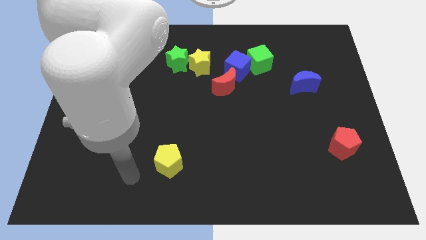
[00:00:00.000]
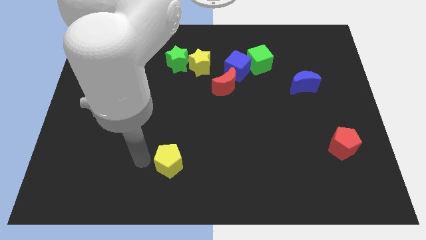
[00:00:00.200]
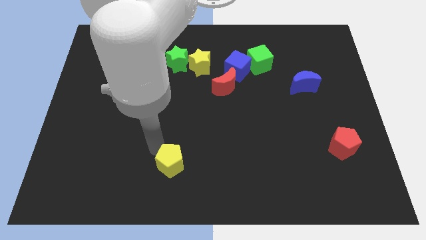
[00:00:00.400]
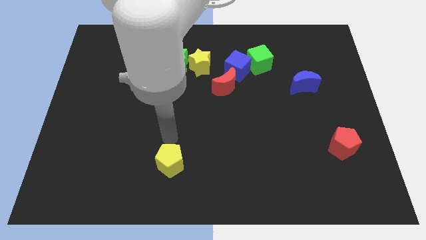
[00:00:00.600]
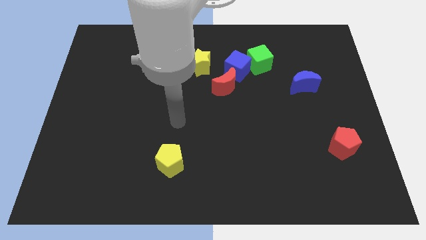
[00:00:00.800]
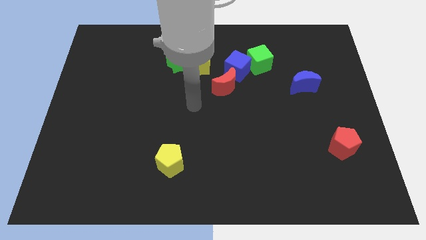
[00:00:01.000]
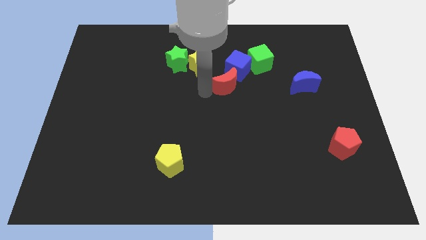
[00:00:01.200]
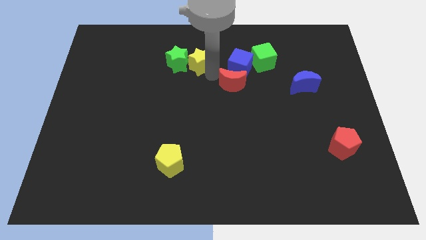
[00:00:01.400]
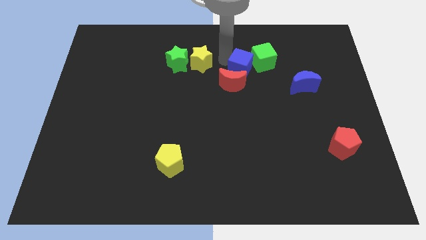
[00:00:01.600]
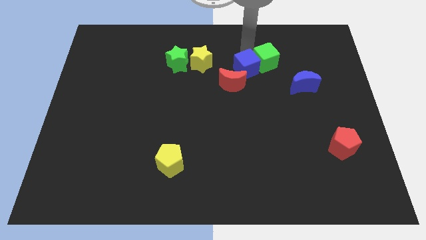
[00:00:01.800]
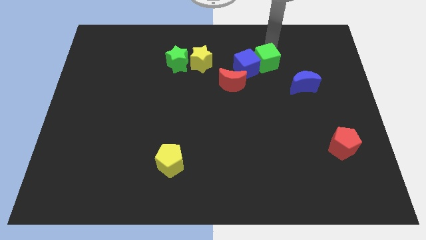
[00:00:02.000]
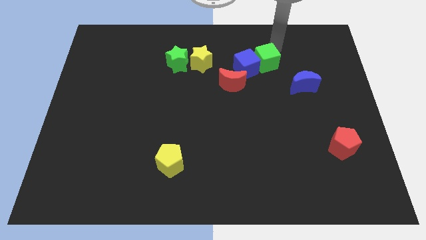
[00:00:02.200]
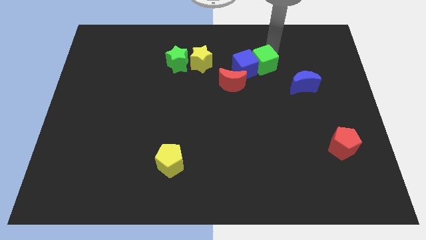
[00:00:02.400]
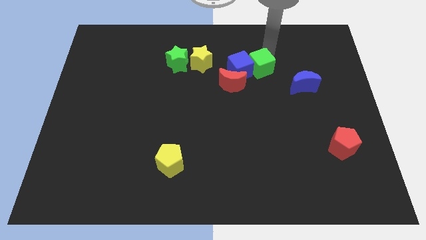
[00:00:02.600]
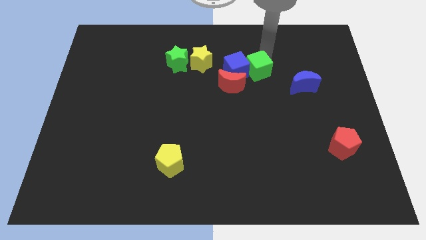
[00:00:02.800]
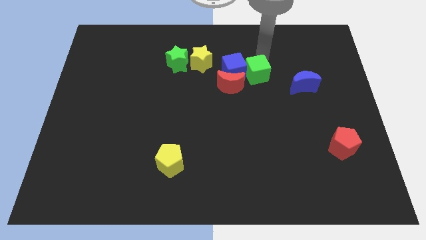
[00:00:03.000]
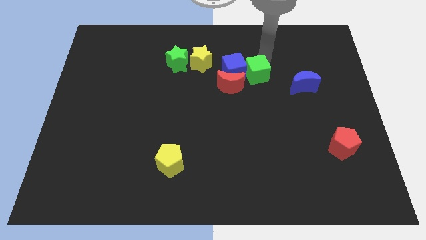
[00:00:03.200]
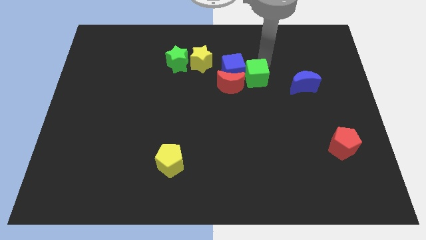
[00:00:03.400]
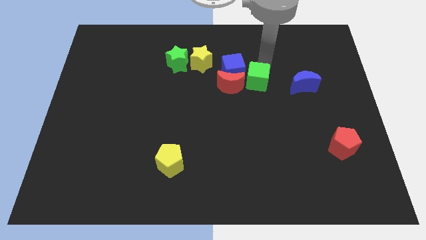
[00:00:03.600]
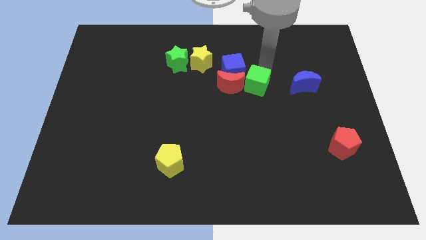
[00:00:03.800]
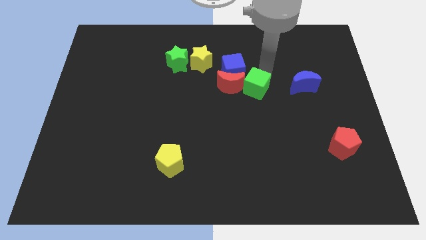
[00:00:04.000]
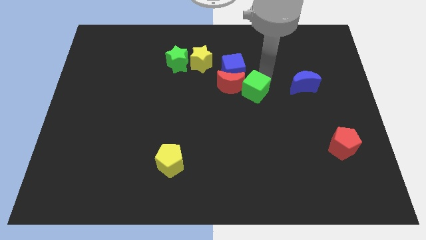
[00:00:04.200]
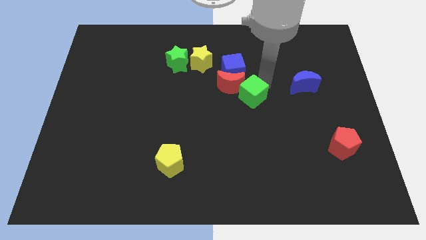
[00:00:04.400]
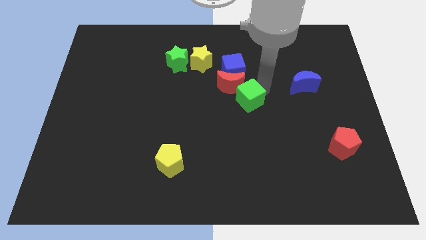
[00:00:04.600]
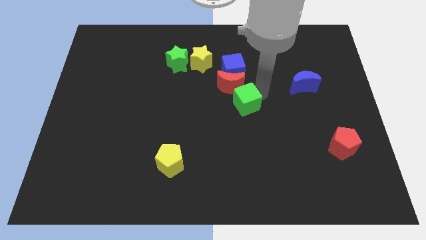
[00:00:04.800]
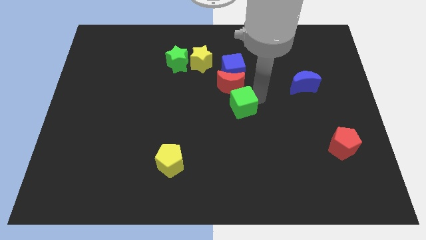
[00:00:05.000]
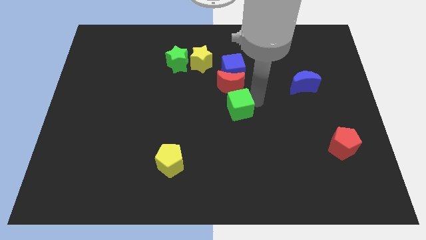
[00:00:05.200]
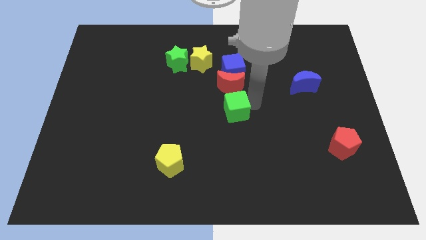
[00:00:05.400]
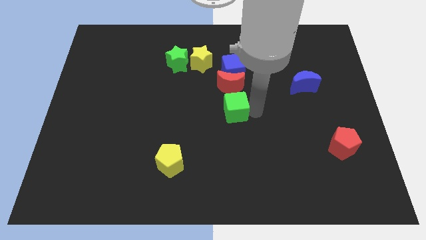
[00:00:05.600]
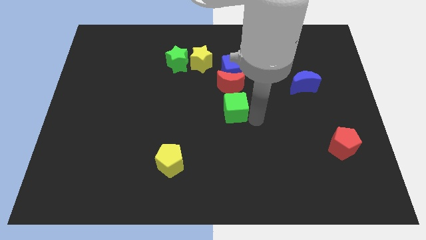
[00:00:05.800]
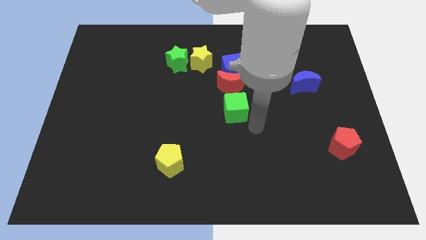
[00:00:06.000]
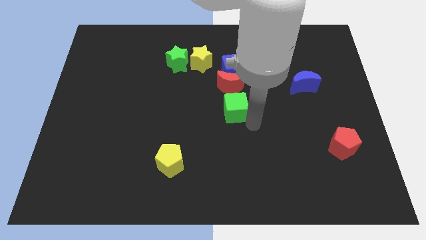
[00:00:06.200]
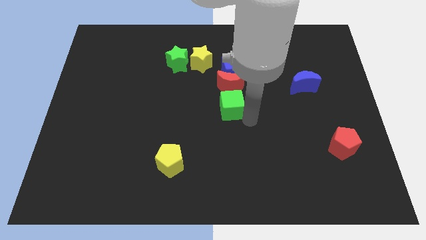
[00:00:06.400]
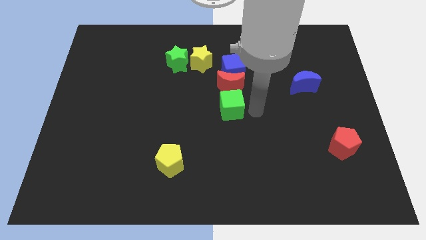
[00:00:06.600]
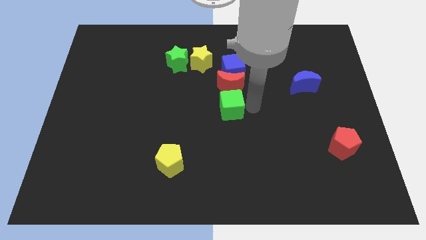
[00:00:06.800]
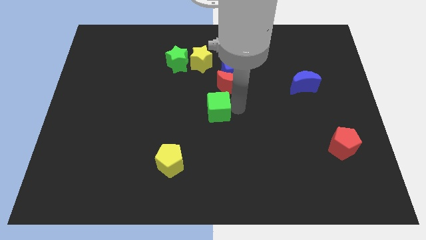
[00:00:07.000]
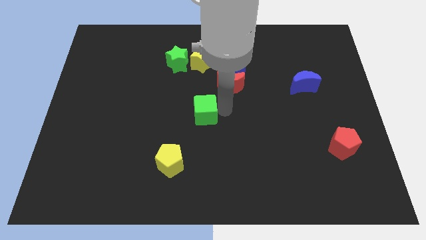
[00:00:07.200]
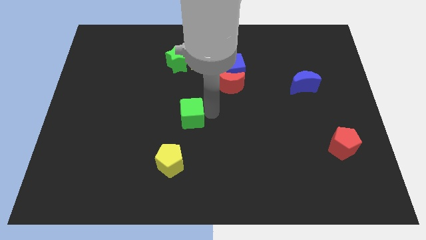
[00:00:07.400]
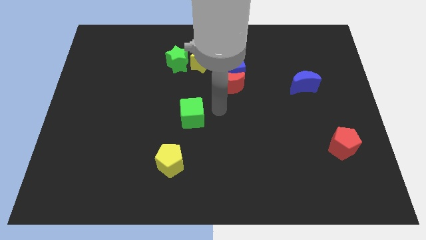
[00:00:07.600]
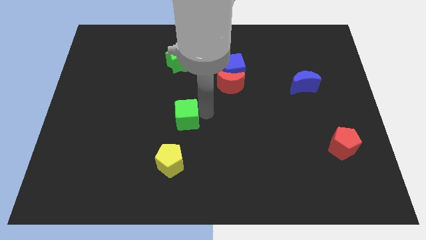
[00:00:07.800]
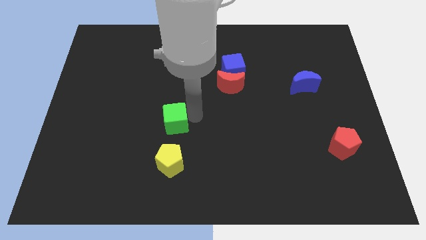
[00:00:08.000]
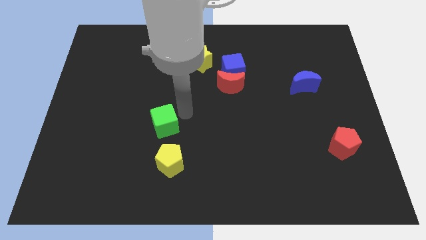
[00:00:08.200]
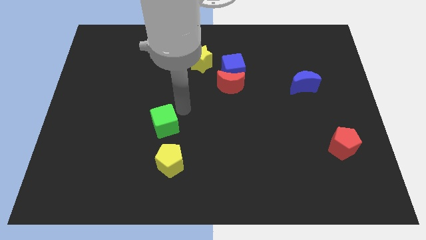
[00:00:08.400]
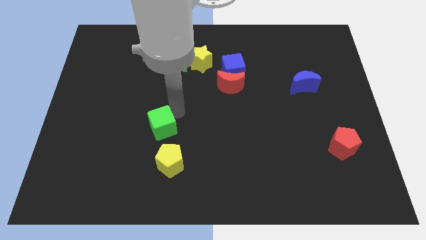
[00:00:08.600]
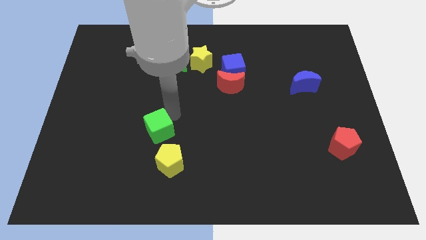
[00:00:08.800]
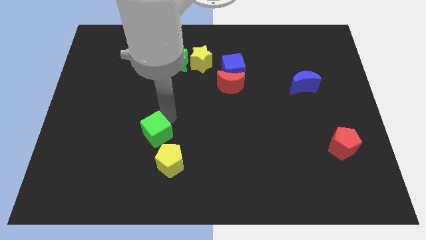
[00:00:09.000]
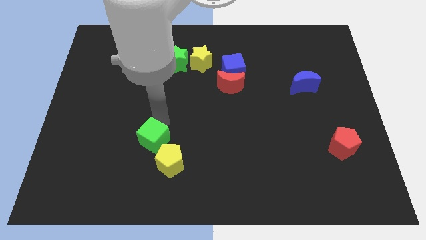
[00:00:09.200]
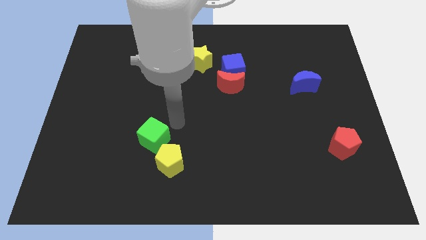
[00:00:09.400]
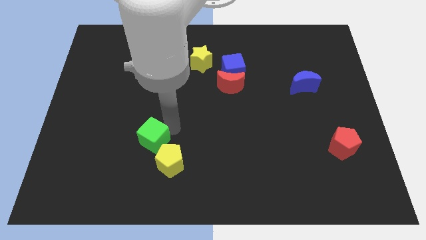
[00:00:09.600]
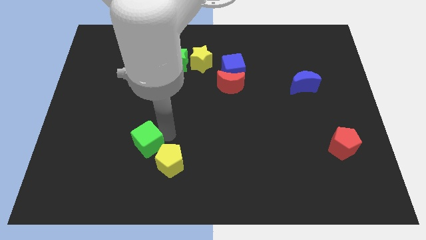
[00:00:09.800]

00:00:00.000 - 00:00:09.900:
slide the green cube to the left of the yellow pentagon

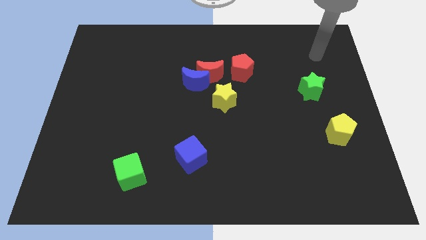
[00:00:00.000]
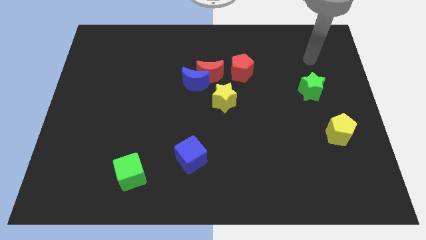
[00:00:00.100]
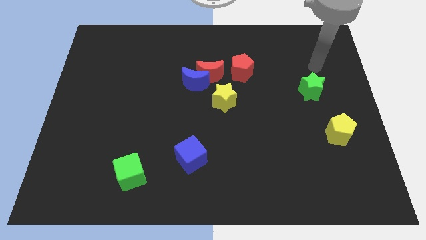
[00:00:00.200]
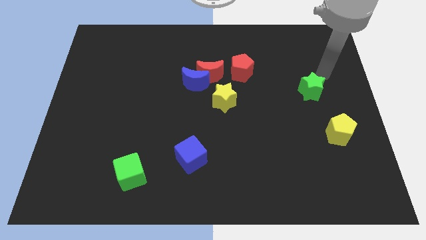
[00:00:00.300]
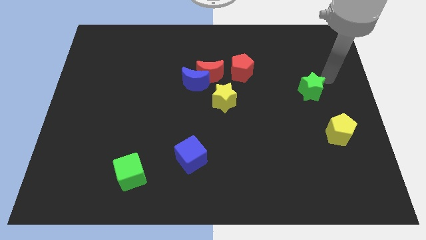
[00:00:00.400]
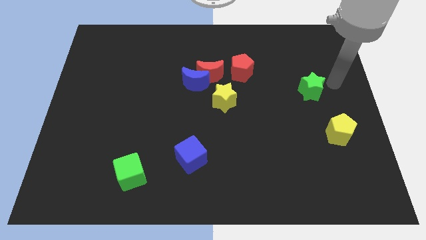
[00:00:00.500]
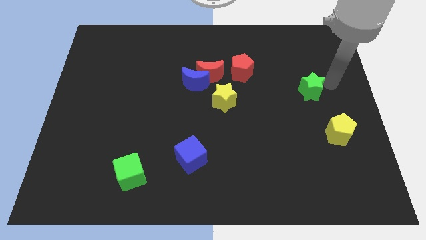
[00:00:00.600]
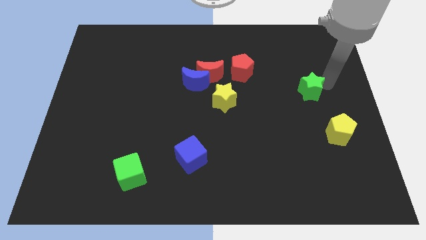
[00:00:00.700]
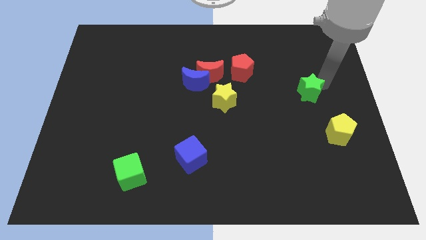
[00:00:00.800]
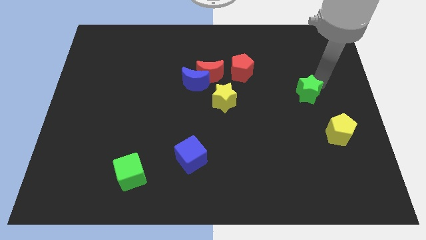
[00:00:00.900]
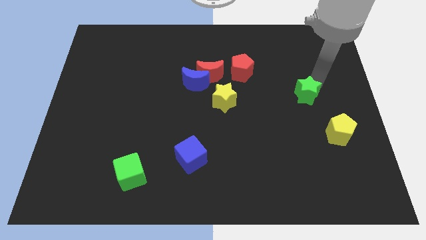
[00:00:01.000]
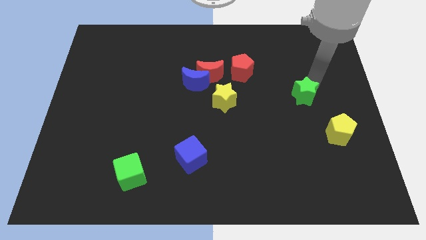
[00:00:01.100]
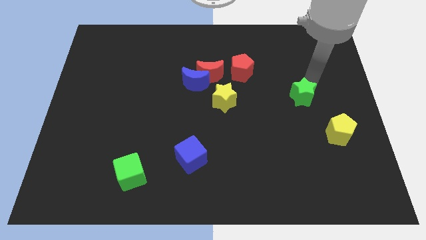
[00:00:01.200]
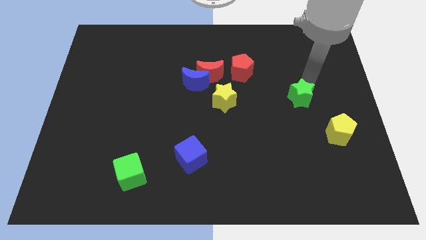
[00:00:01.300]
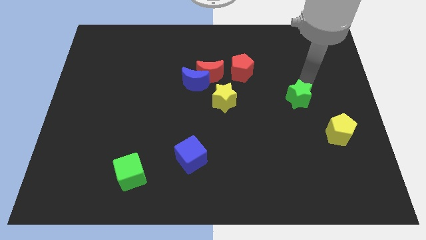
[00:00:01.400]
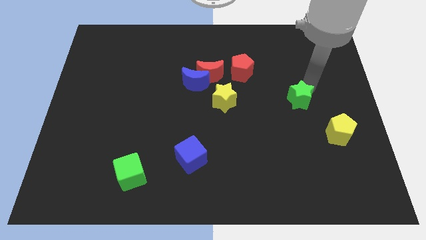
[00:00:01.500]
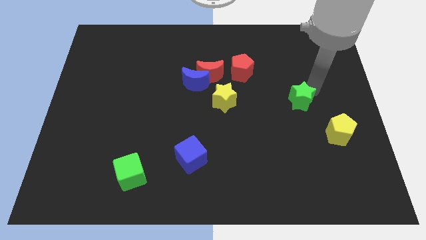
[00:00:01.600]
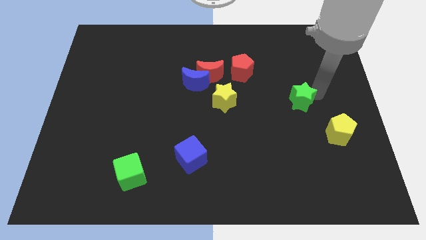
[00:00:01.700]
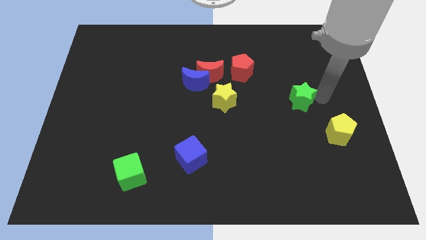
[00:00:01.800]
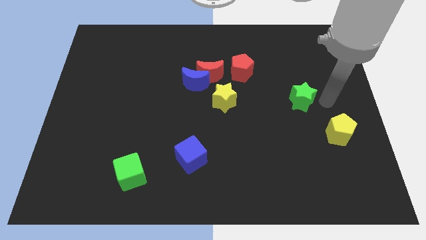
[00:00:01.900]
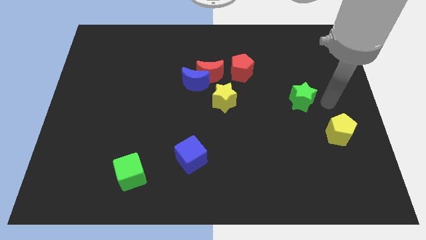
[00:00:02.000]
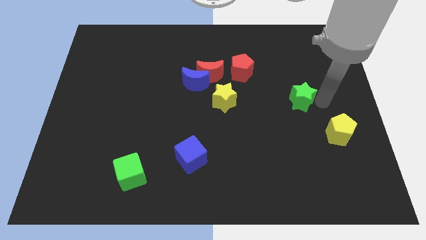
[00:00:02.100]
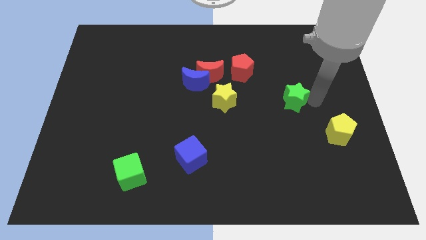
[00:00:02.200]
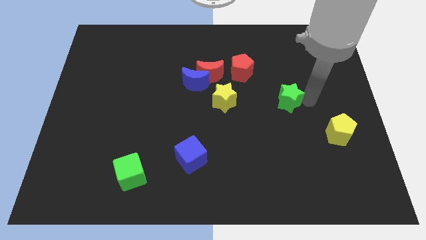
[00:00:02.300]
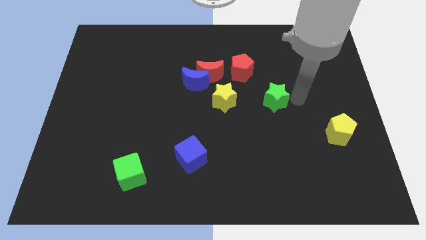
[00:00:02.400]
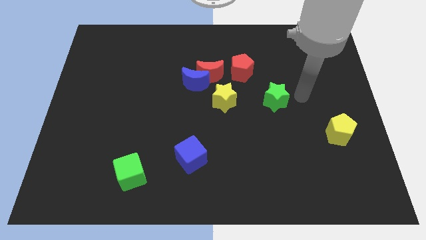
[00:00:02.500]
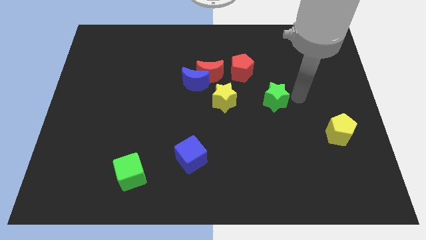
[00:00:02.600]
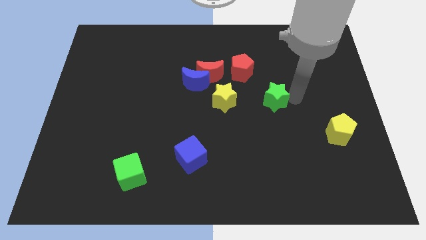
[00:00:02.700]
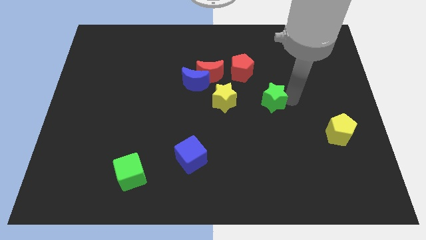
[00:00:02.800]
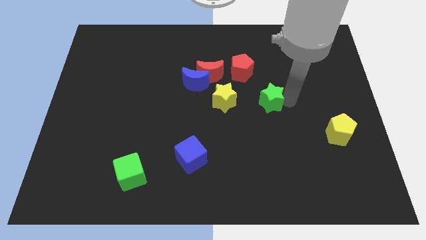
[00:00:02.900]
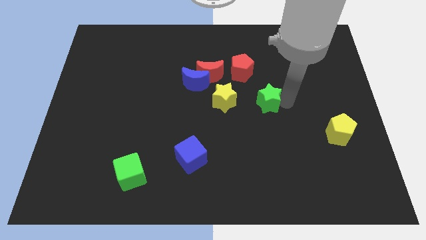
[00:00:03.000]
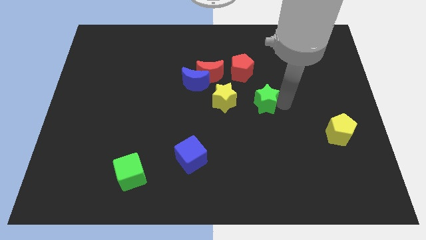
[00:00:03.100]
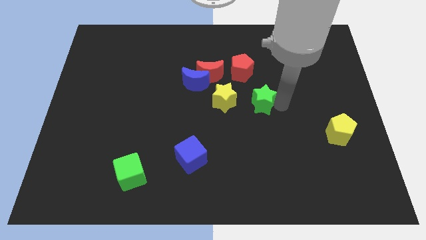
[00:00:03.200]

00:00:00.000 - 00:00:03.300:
put the green star below the red pentagon
